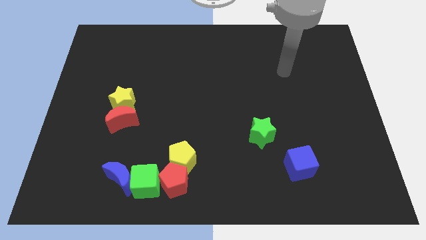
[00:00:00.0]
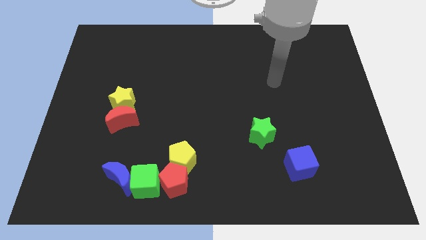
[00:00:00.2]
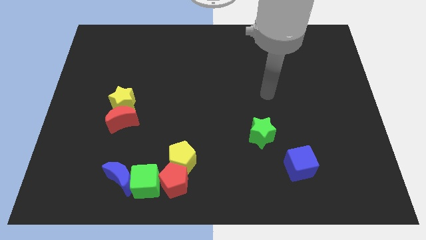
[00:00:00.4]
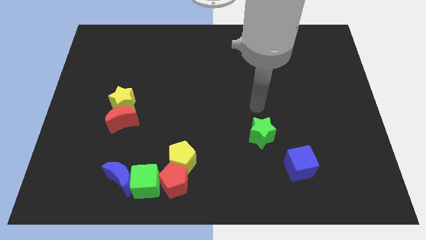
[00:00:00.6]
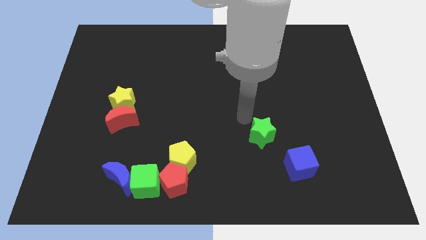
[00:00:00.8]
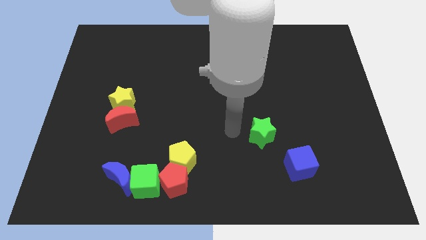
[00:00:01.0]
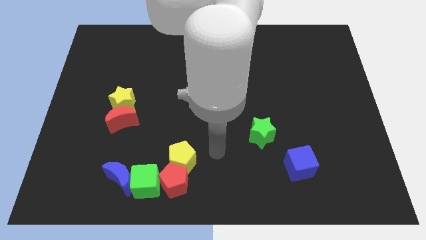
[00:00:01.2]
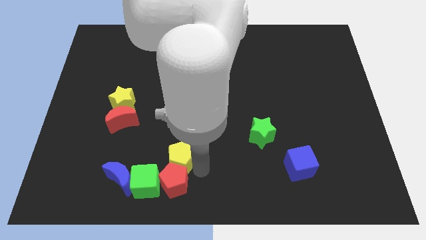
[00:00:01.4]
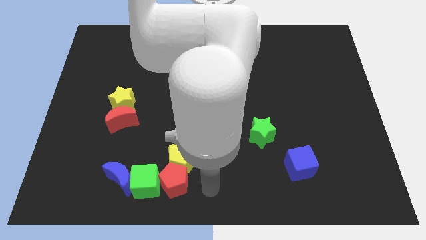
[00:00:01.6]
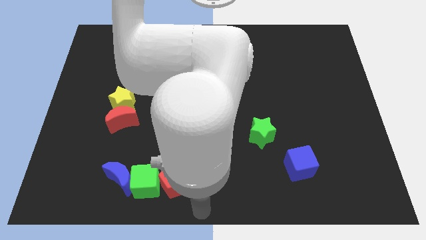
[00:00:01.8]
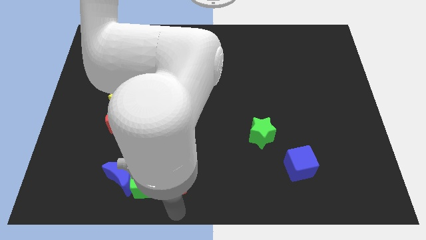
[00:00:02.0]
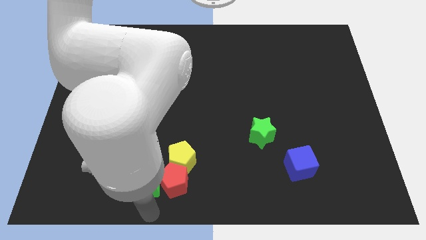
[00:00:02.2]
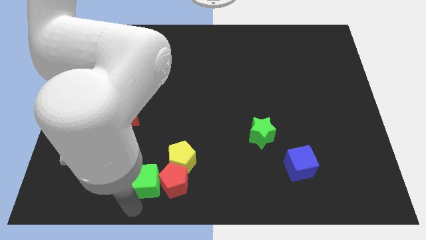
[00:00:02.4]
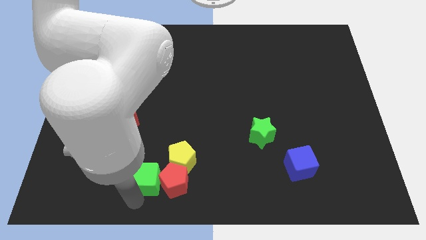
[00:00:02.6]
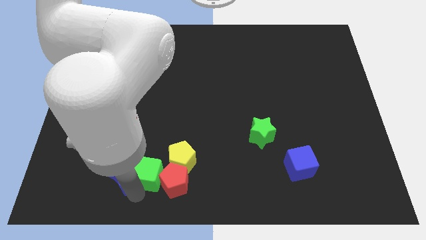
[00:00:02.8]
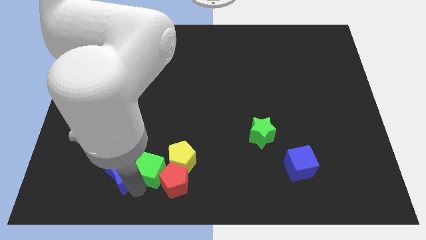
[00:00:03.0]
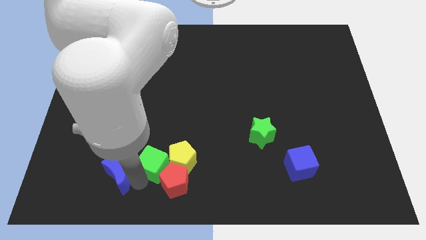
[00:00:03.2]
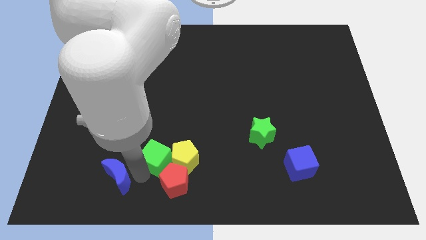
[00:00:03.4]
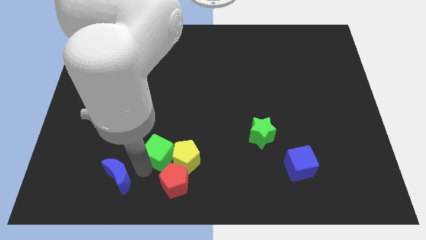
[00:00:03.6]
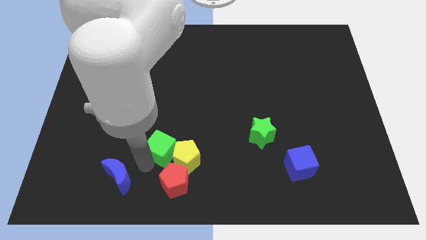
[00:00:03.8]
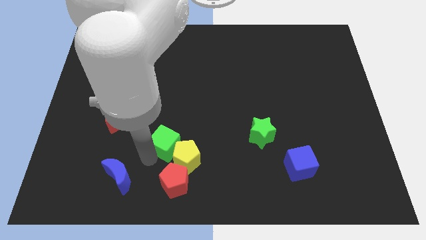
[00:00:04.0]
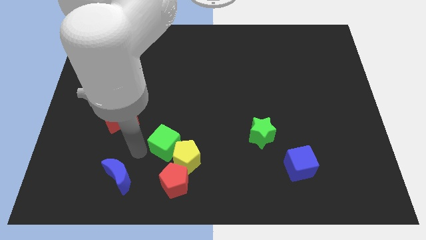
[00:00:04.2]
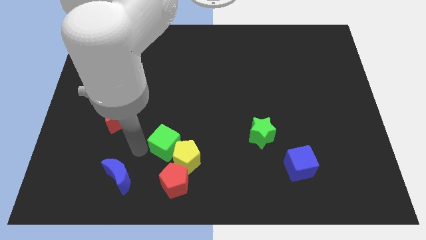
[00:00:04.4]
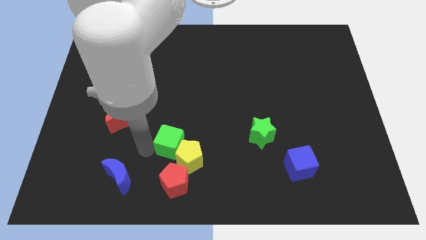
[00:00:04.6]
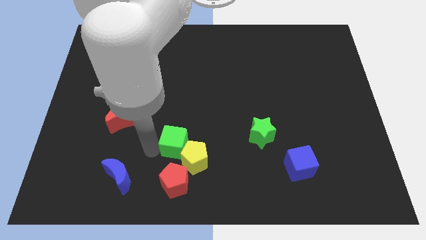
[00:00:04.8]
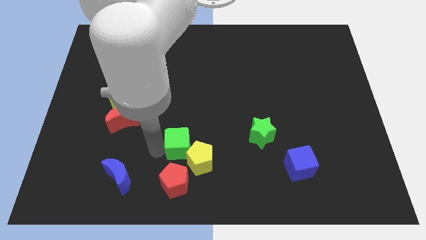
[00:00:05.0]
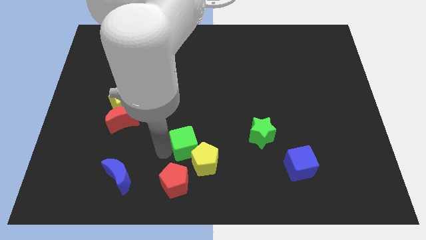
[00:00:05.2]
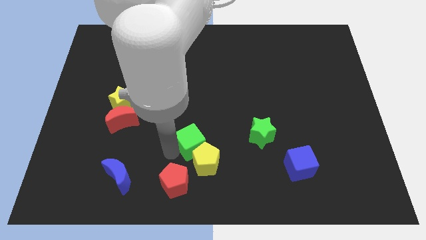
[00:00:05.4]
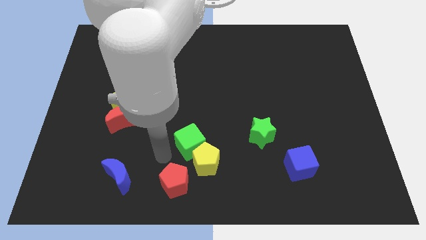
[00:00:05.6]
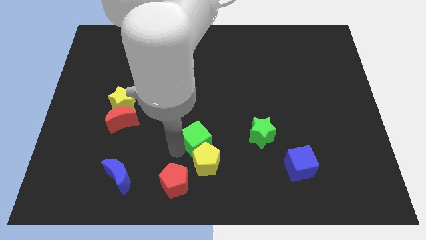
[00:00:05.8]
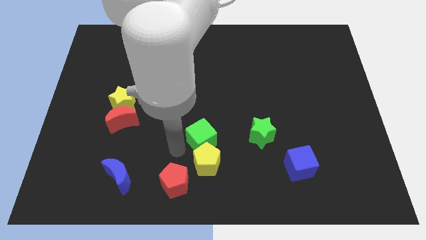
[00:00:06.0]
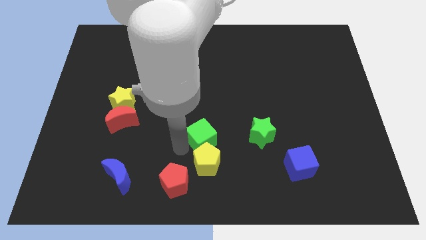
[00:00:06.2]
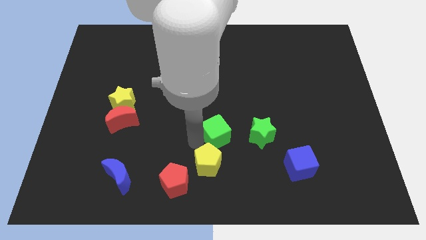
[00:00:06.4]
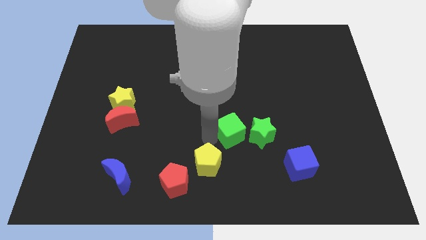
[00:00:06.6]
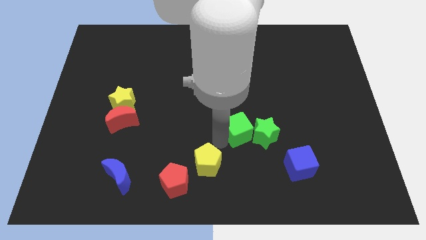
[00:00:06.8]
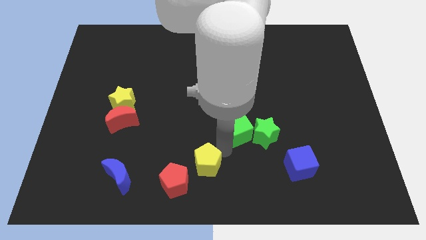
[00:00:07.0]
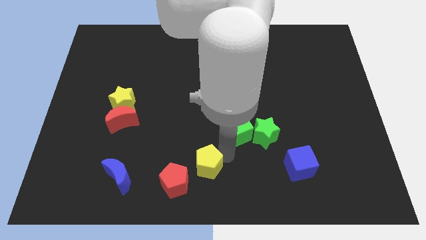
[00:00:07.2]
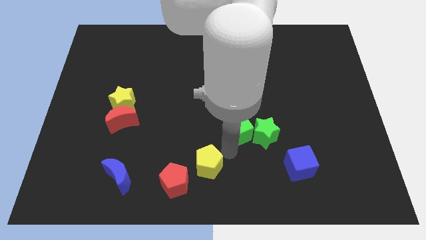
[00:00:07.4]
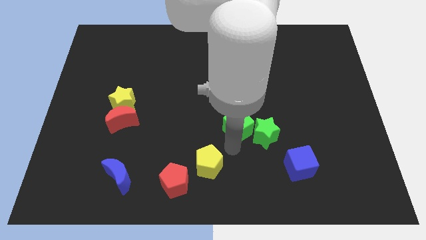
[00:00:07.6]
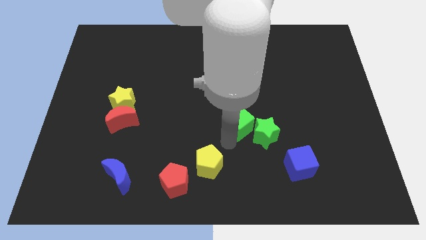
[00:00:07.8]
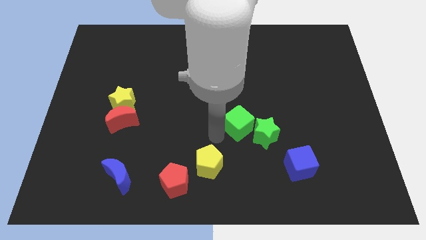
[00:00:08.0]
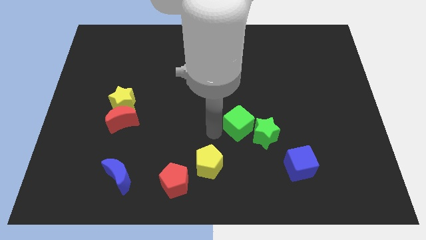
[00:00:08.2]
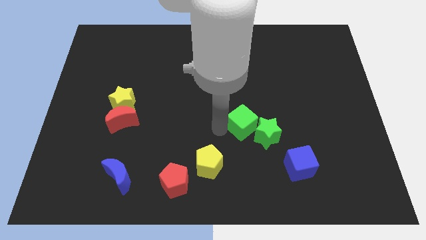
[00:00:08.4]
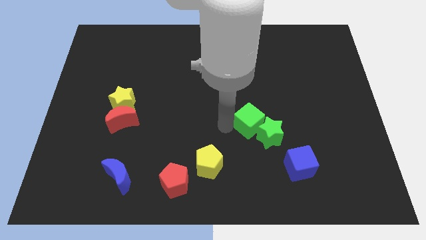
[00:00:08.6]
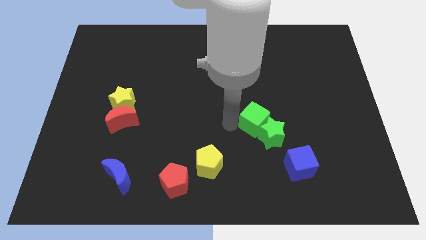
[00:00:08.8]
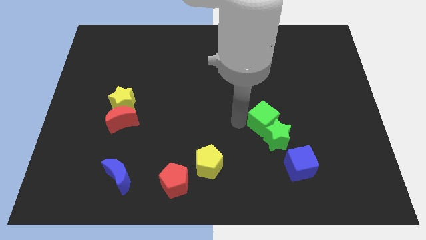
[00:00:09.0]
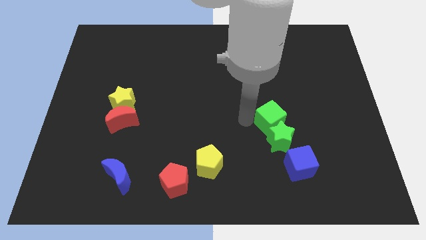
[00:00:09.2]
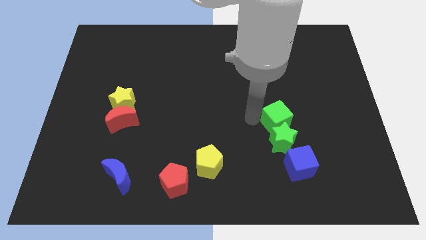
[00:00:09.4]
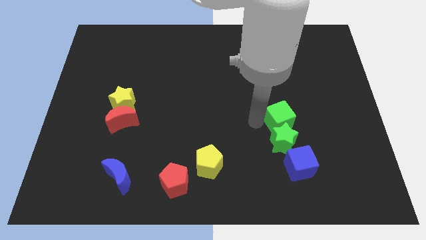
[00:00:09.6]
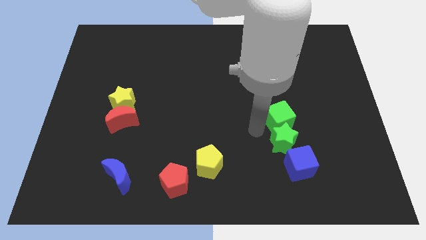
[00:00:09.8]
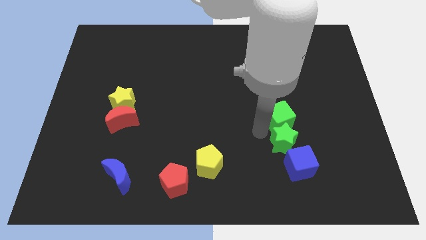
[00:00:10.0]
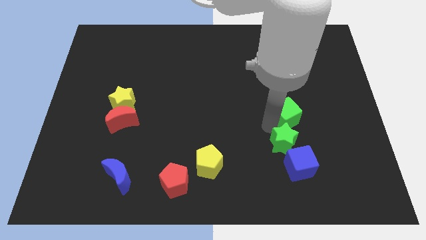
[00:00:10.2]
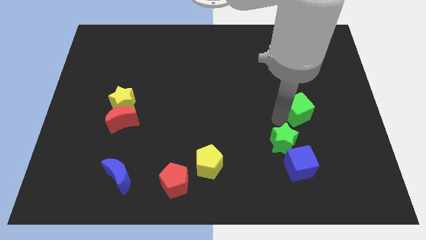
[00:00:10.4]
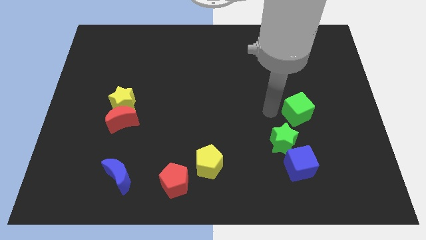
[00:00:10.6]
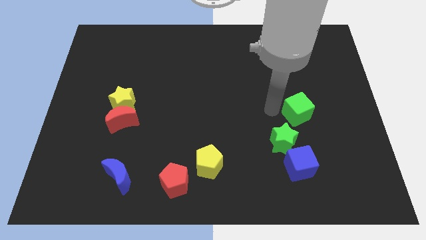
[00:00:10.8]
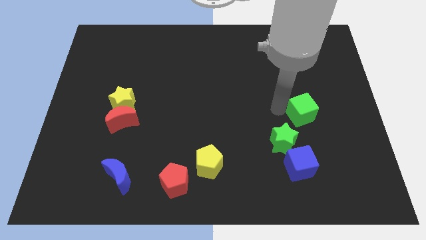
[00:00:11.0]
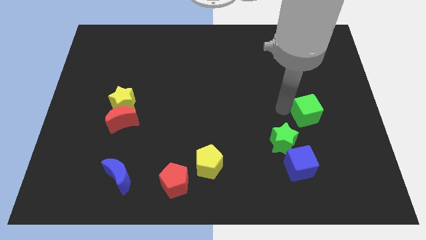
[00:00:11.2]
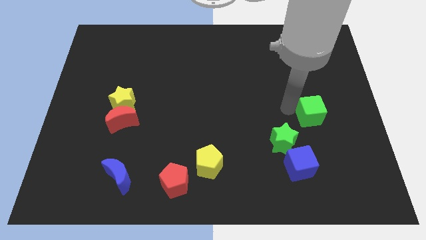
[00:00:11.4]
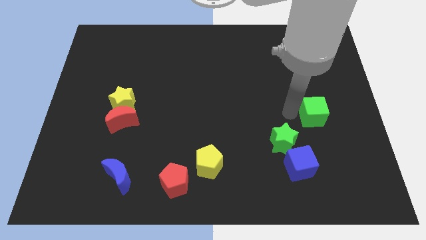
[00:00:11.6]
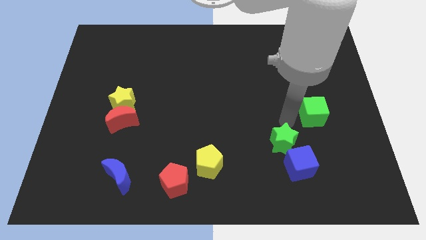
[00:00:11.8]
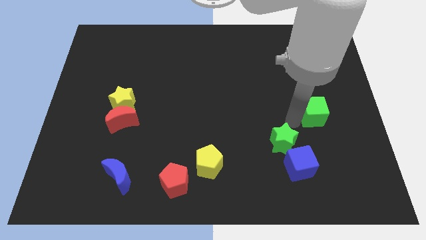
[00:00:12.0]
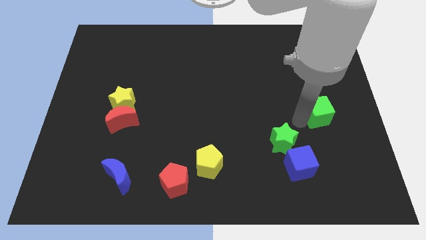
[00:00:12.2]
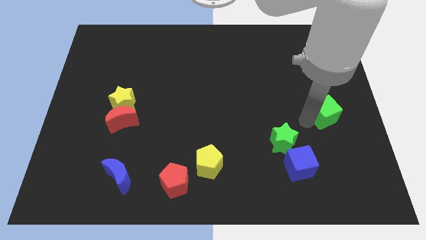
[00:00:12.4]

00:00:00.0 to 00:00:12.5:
put the green cube to the right side of the board

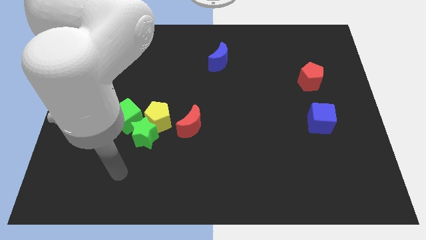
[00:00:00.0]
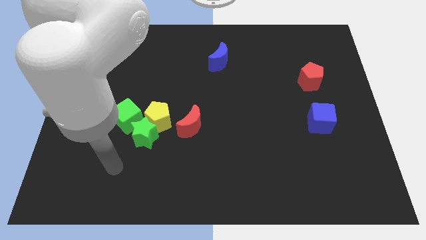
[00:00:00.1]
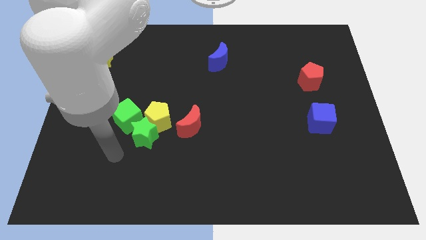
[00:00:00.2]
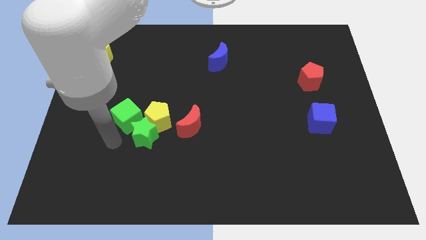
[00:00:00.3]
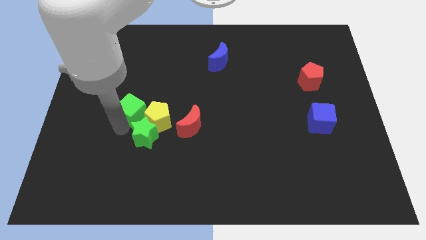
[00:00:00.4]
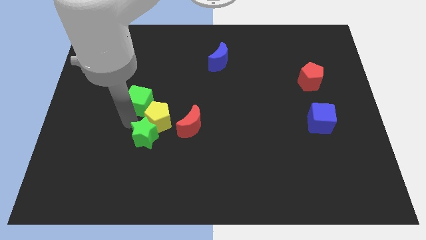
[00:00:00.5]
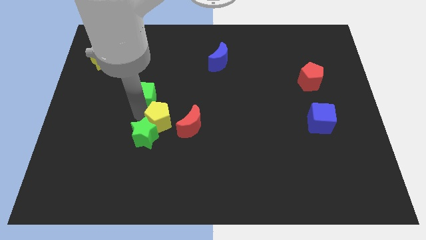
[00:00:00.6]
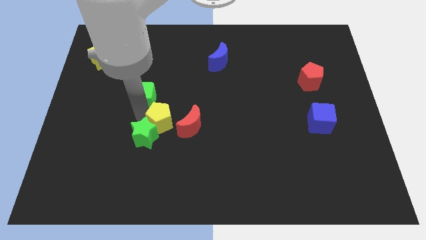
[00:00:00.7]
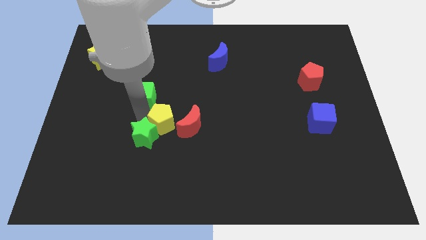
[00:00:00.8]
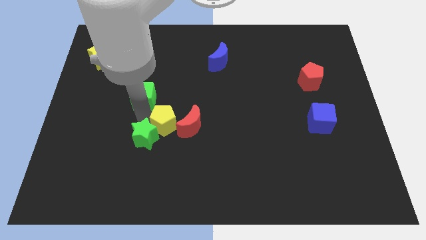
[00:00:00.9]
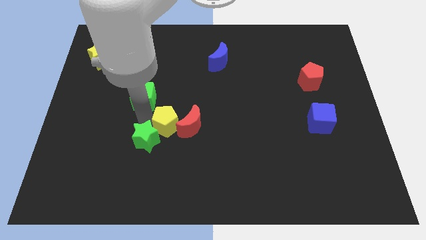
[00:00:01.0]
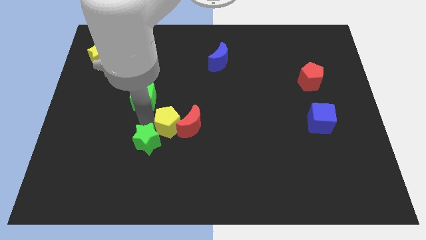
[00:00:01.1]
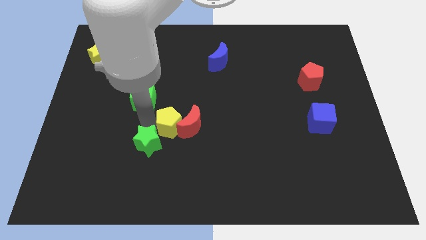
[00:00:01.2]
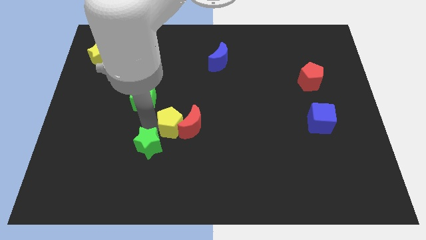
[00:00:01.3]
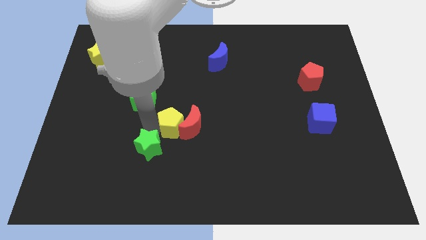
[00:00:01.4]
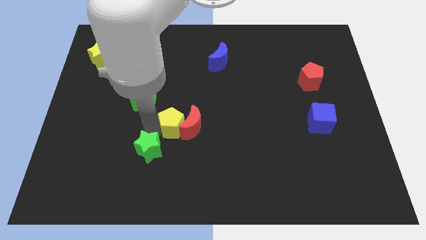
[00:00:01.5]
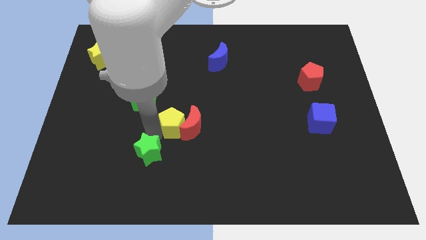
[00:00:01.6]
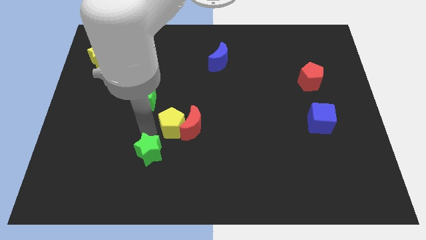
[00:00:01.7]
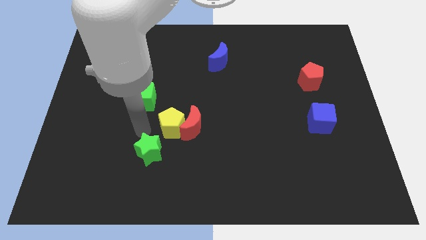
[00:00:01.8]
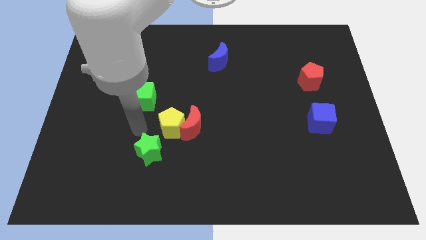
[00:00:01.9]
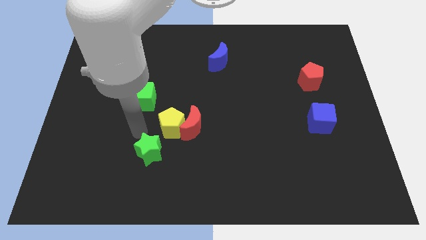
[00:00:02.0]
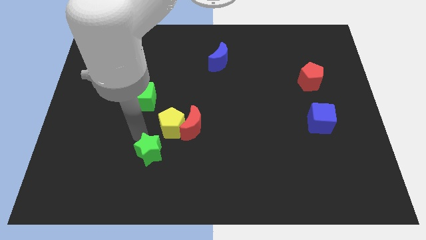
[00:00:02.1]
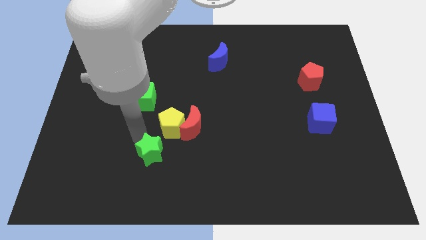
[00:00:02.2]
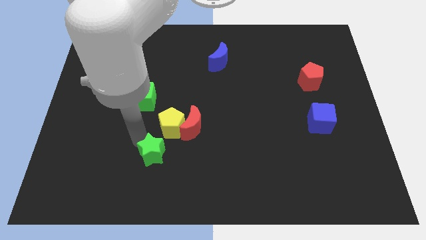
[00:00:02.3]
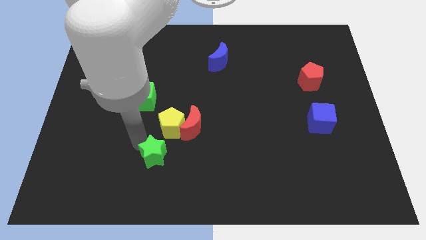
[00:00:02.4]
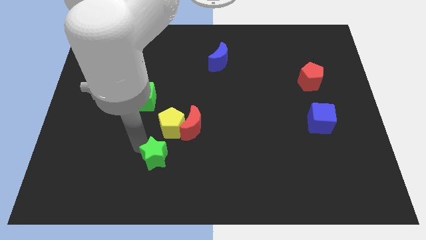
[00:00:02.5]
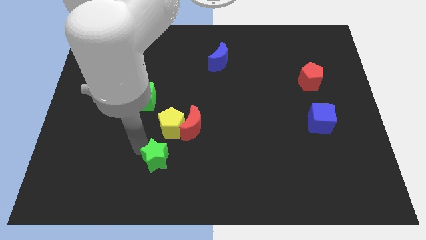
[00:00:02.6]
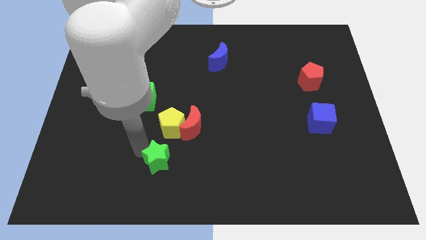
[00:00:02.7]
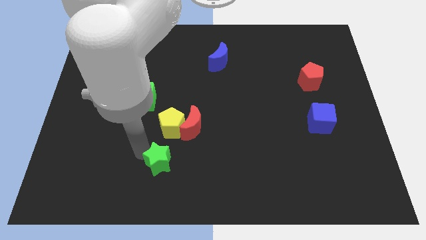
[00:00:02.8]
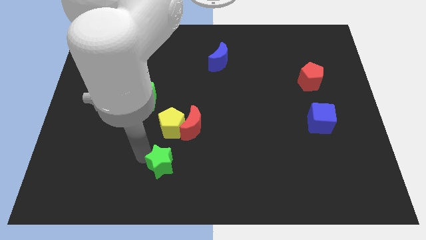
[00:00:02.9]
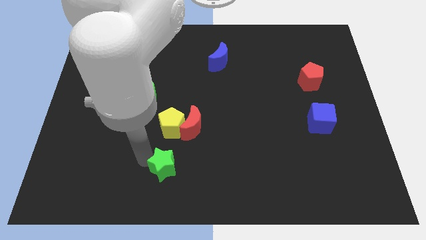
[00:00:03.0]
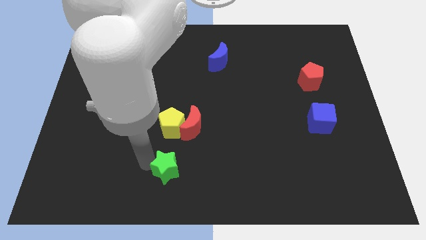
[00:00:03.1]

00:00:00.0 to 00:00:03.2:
push the green star to the bottom
